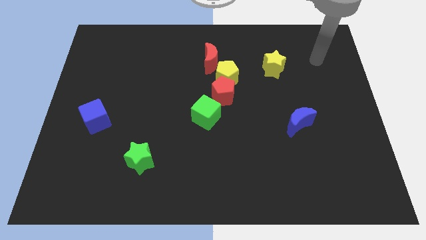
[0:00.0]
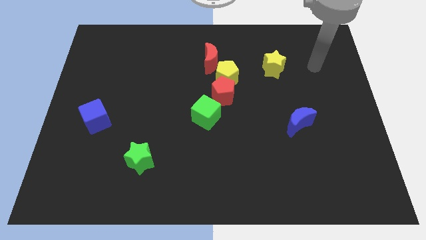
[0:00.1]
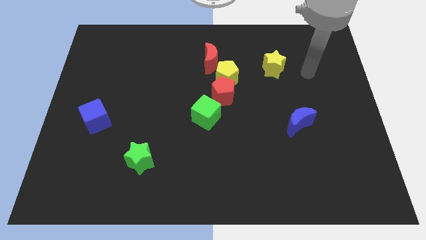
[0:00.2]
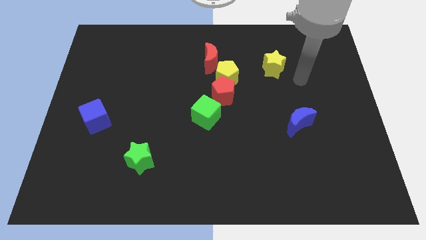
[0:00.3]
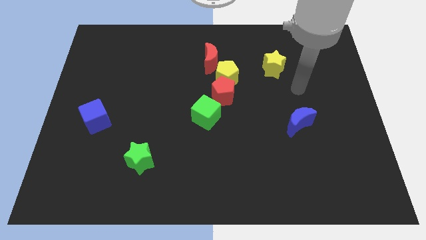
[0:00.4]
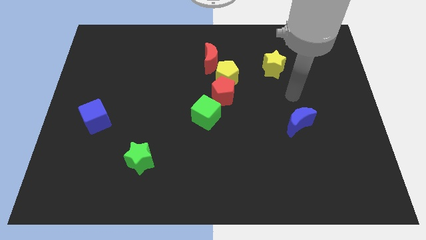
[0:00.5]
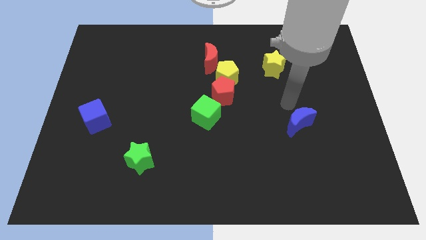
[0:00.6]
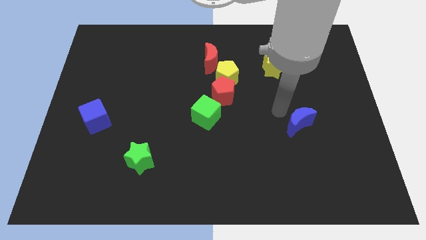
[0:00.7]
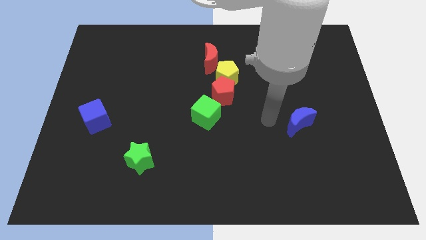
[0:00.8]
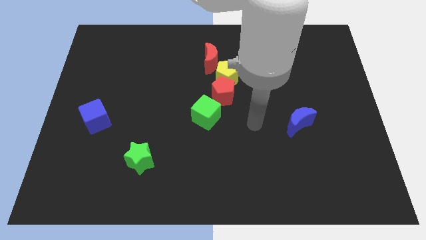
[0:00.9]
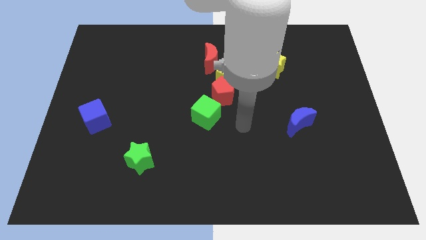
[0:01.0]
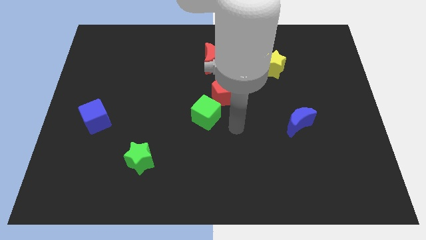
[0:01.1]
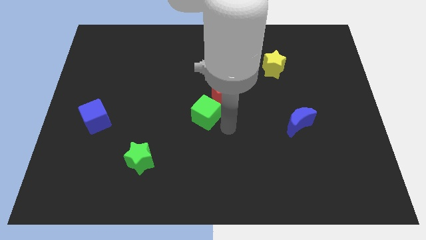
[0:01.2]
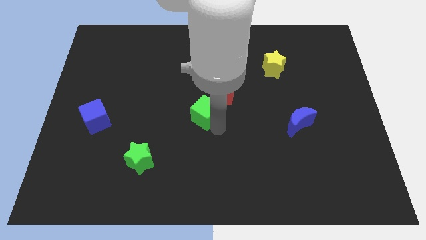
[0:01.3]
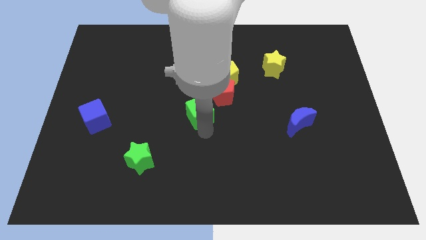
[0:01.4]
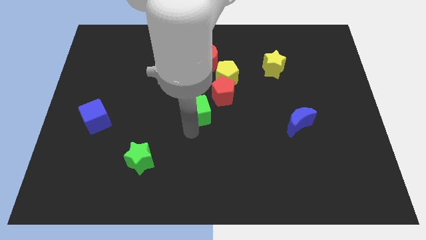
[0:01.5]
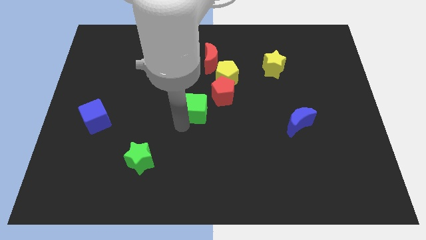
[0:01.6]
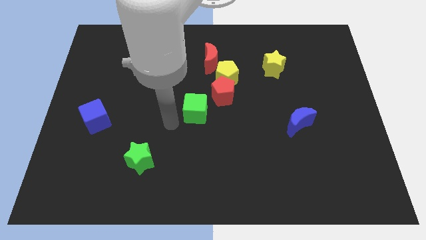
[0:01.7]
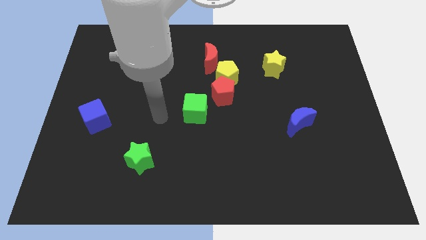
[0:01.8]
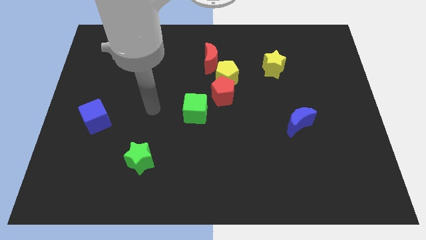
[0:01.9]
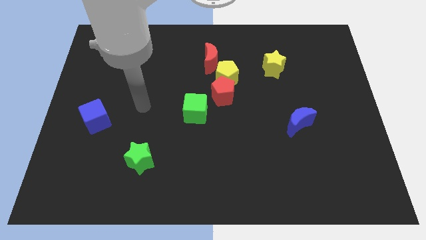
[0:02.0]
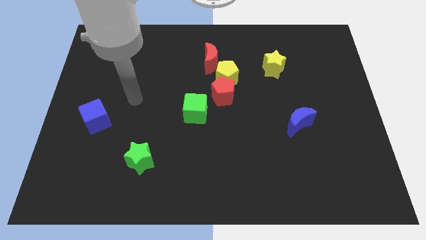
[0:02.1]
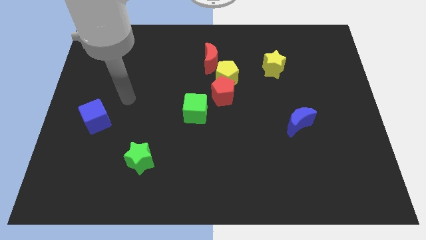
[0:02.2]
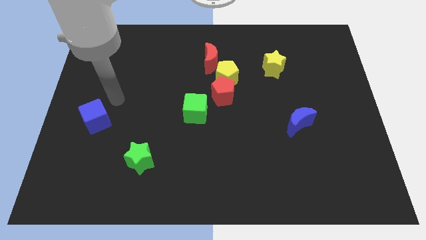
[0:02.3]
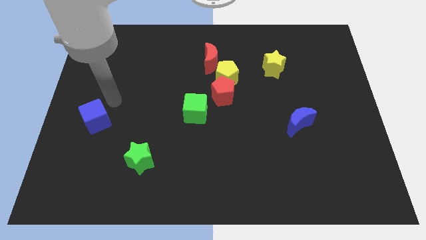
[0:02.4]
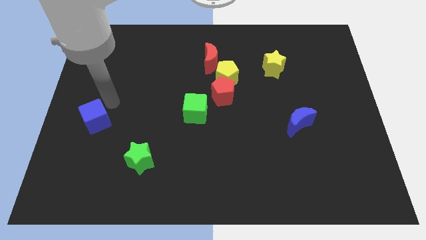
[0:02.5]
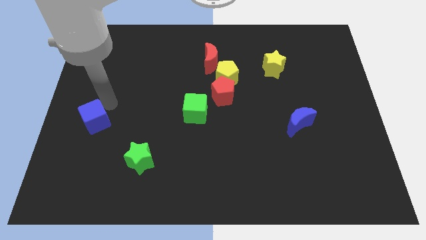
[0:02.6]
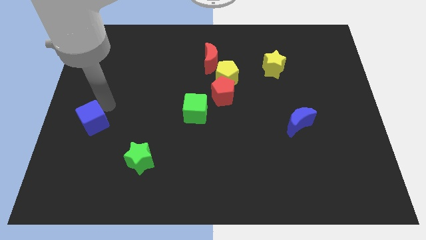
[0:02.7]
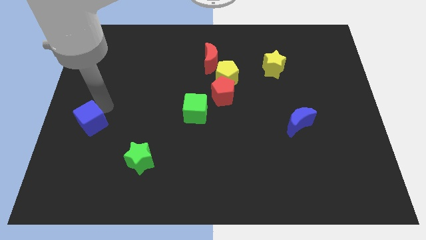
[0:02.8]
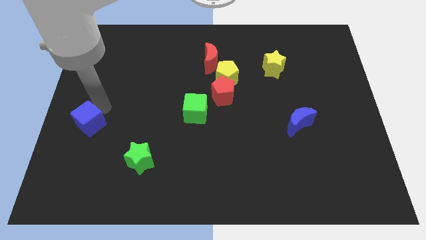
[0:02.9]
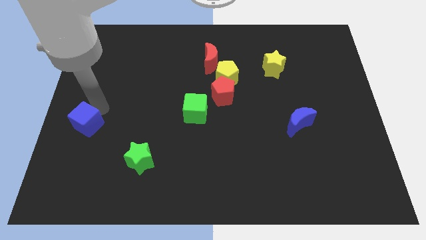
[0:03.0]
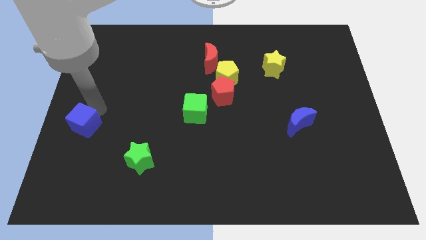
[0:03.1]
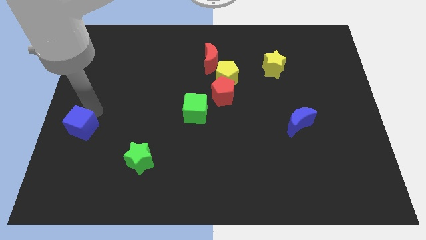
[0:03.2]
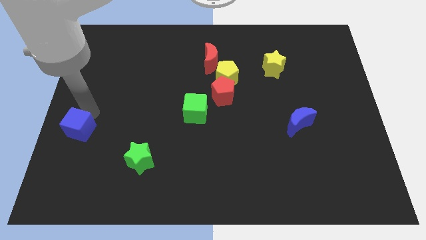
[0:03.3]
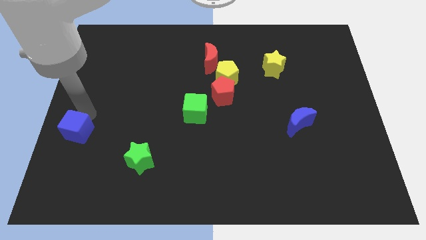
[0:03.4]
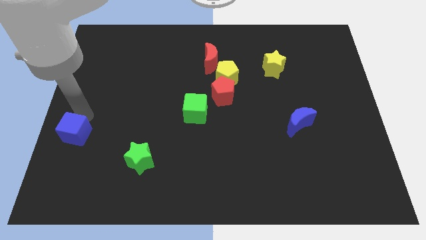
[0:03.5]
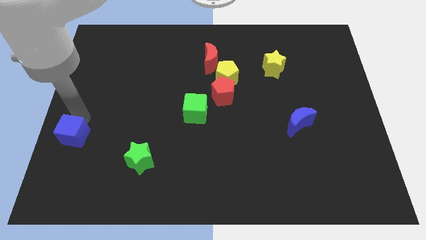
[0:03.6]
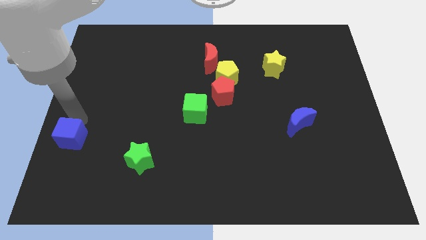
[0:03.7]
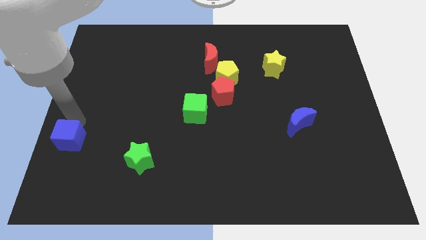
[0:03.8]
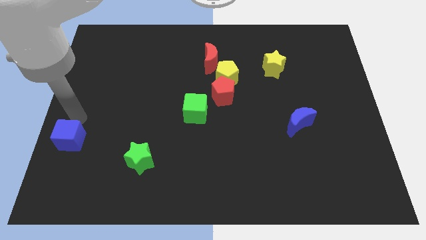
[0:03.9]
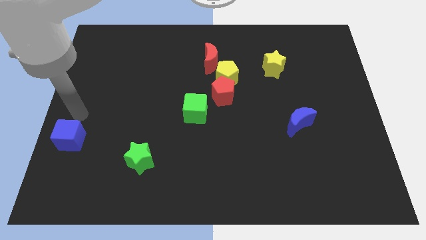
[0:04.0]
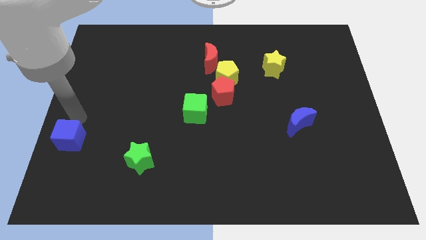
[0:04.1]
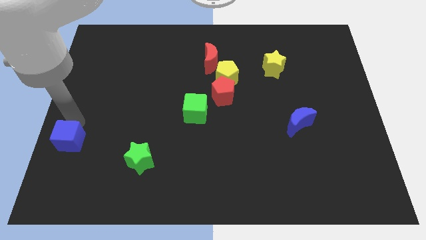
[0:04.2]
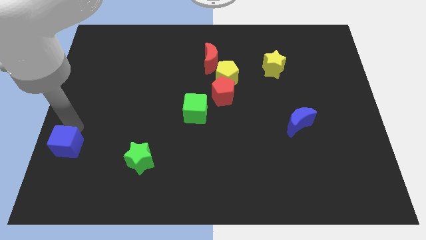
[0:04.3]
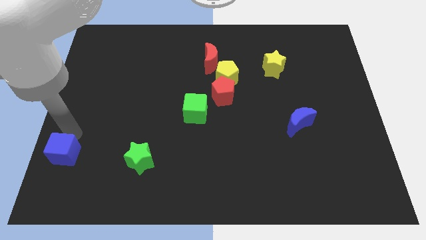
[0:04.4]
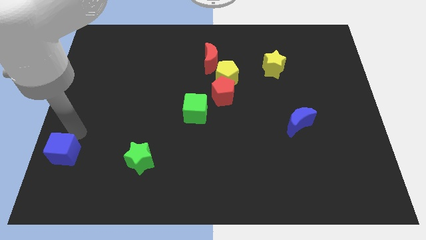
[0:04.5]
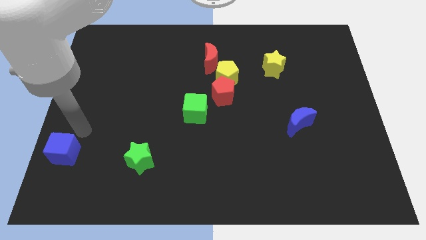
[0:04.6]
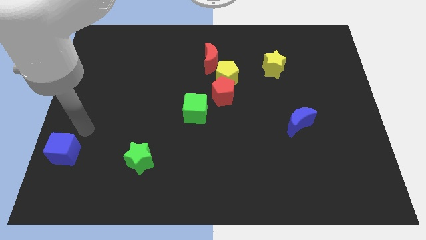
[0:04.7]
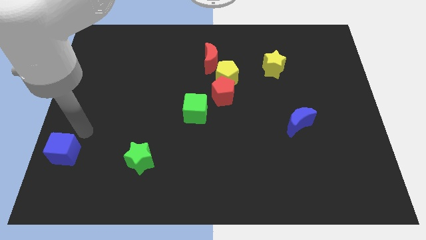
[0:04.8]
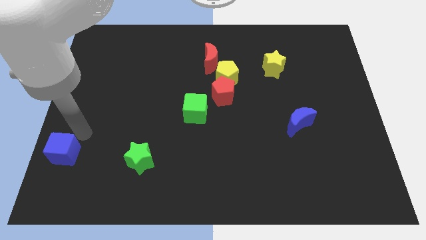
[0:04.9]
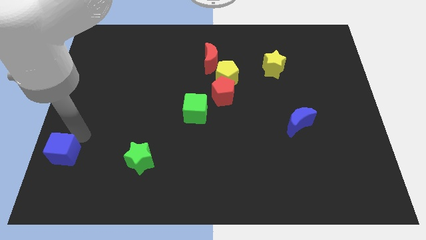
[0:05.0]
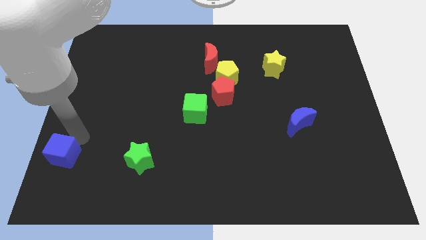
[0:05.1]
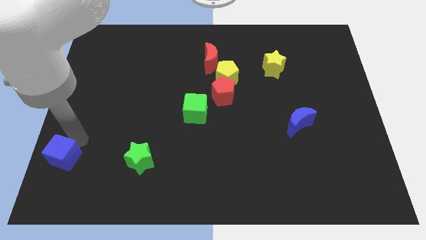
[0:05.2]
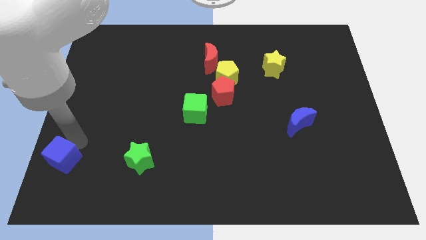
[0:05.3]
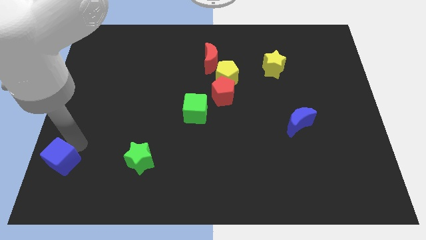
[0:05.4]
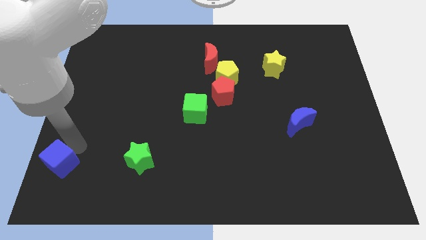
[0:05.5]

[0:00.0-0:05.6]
slide the blue cube to the bottom left corner

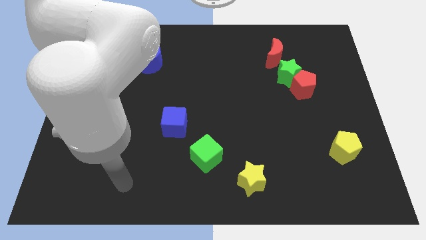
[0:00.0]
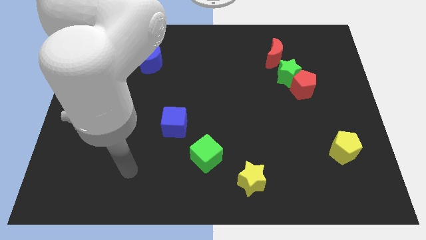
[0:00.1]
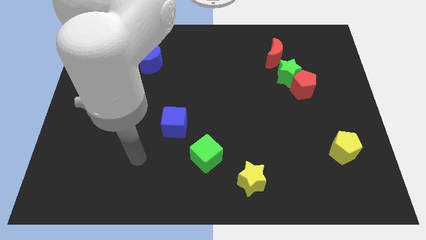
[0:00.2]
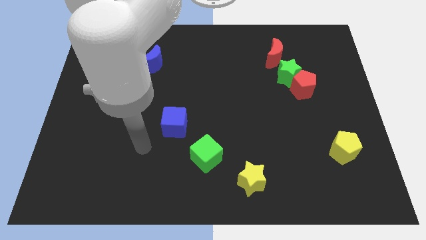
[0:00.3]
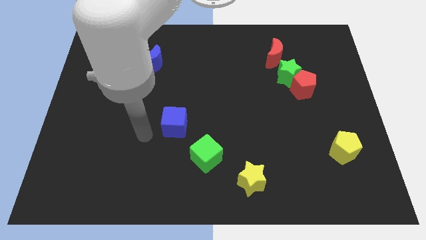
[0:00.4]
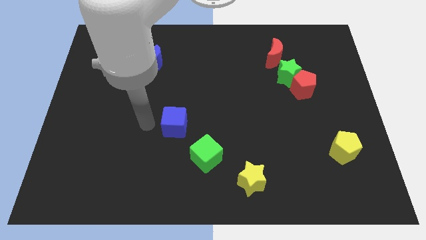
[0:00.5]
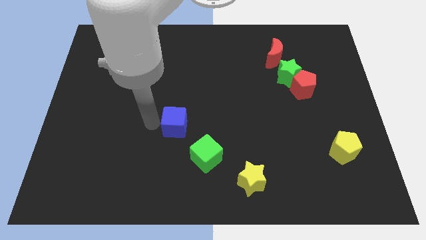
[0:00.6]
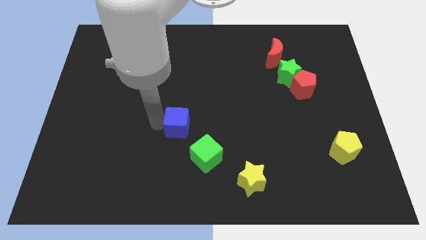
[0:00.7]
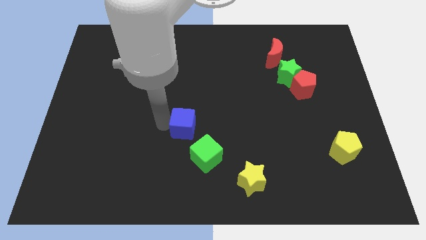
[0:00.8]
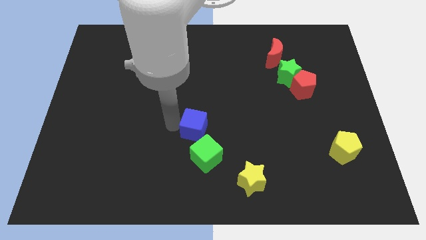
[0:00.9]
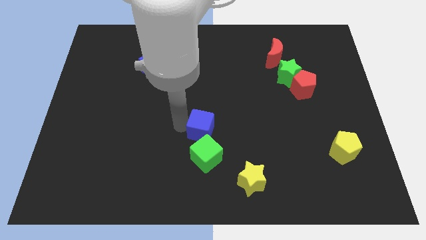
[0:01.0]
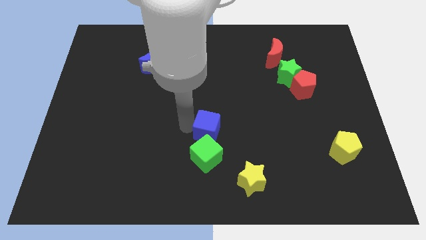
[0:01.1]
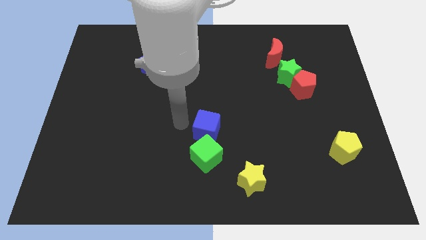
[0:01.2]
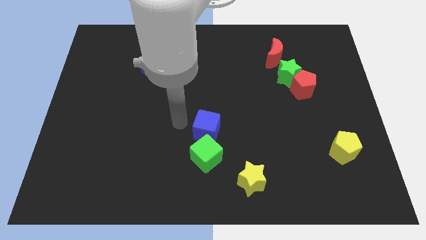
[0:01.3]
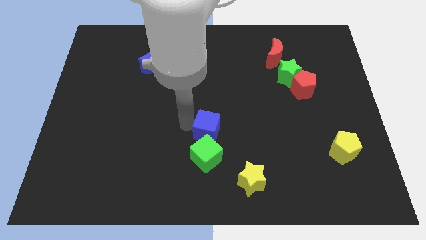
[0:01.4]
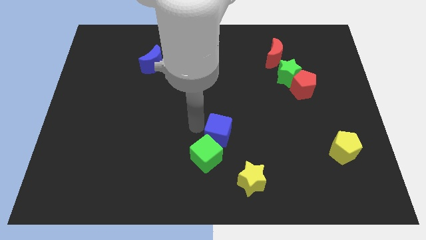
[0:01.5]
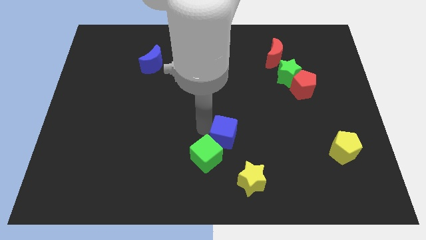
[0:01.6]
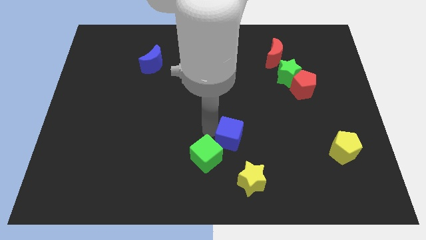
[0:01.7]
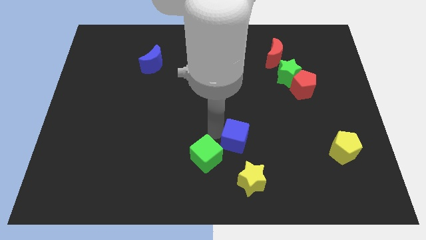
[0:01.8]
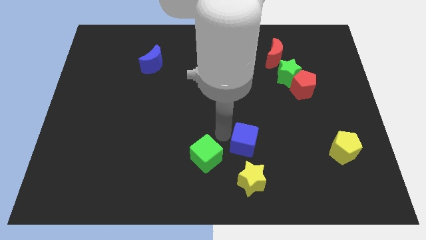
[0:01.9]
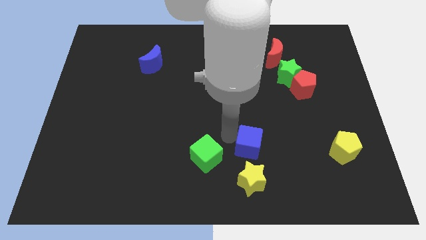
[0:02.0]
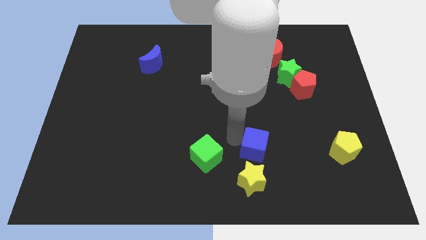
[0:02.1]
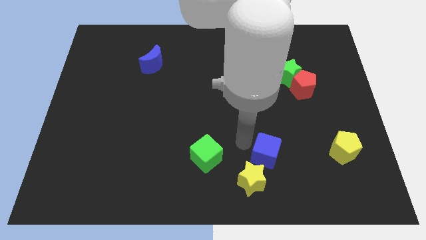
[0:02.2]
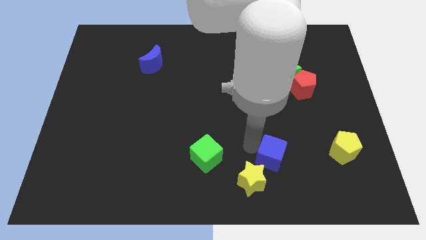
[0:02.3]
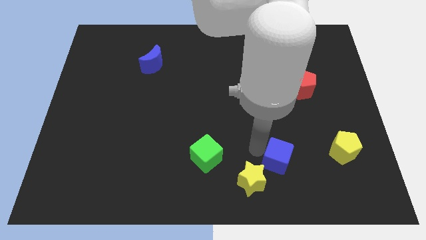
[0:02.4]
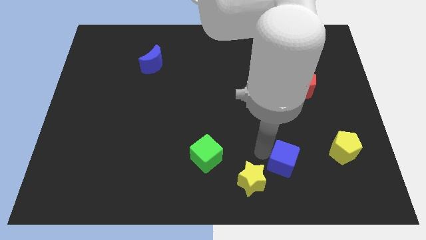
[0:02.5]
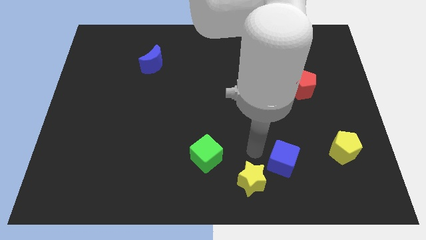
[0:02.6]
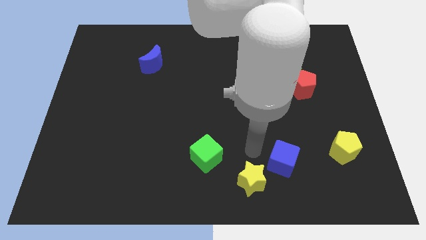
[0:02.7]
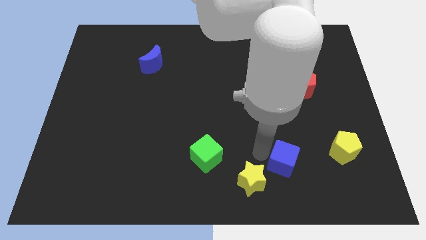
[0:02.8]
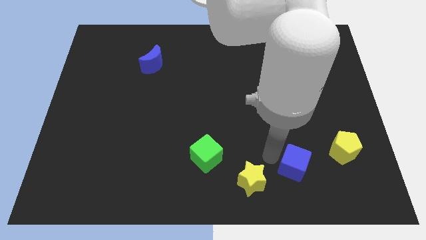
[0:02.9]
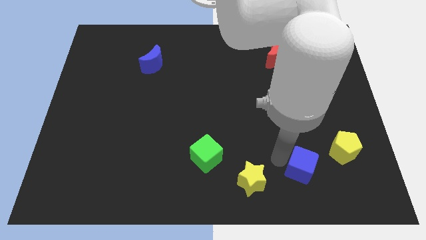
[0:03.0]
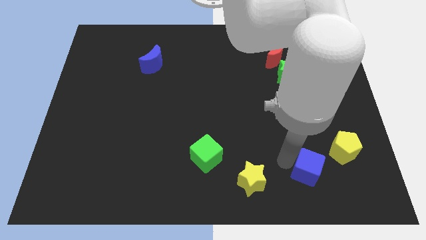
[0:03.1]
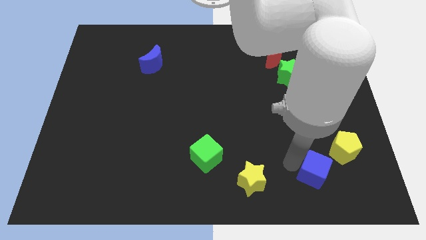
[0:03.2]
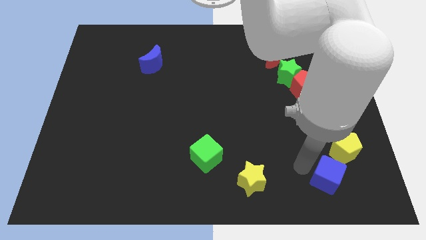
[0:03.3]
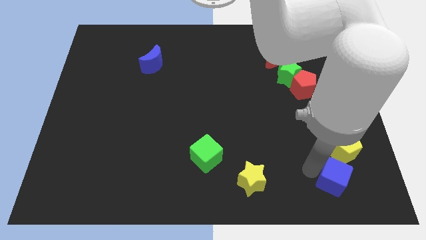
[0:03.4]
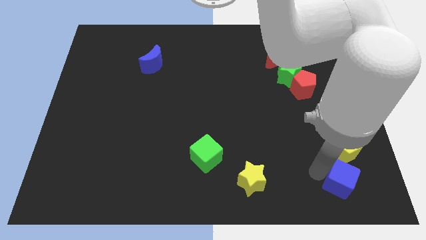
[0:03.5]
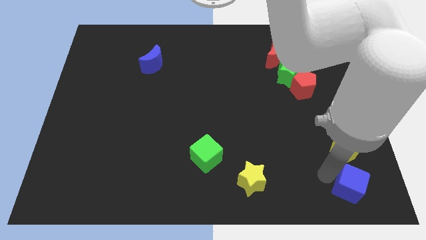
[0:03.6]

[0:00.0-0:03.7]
put the blue cube to the bottom right corner
